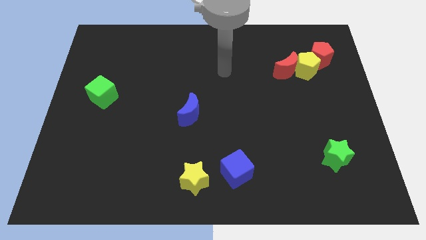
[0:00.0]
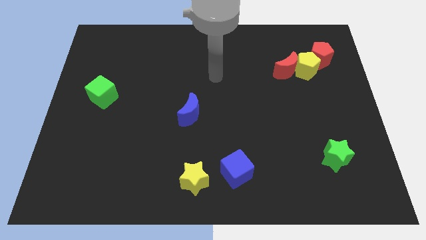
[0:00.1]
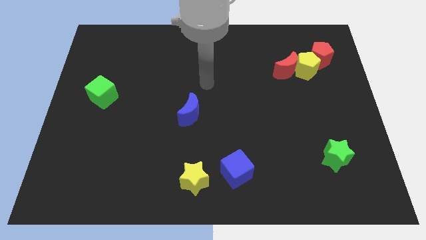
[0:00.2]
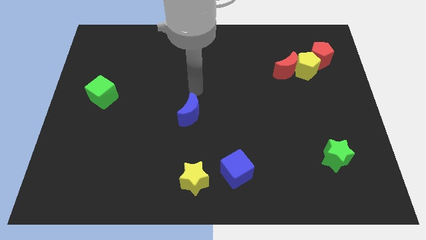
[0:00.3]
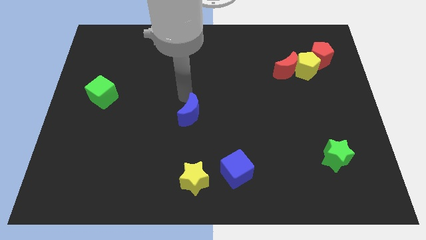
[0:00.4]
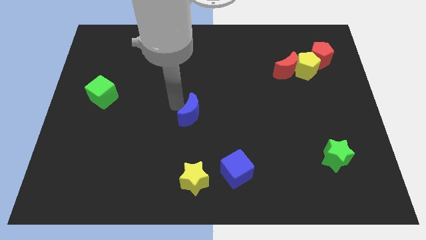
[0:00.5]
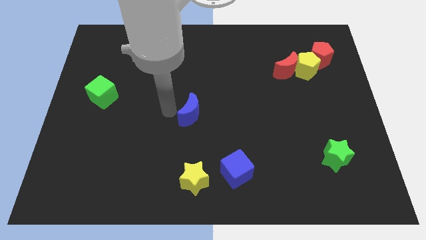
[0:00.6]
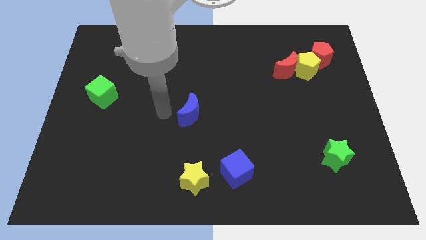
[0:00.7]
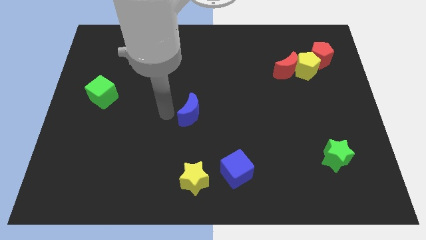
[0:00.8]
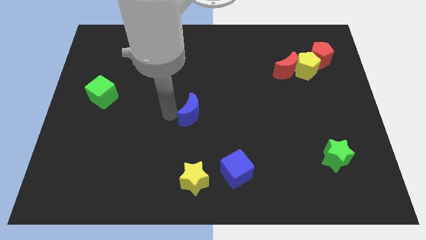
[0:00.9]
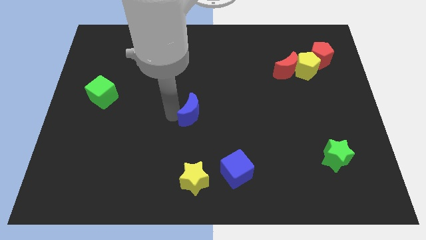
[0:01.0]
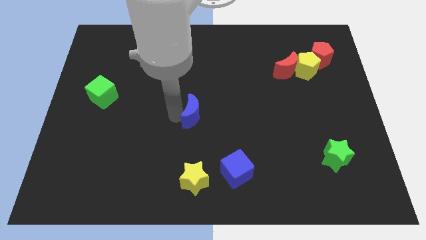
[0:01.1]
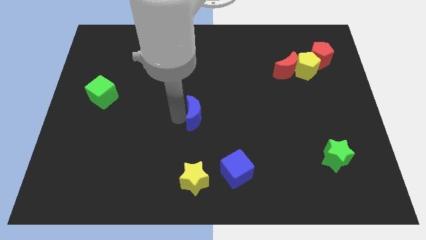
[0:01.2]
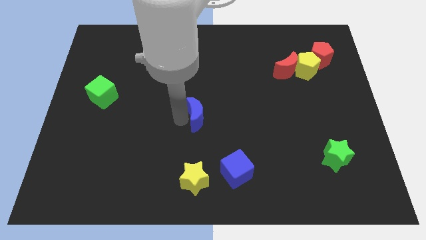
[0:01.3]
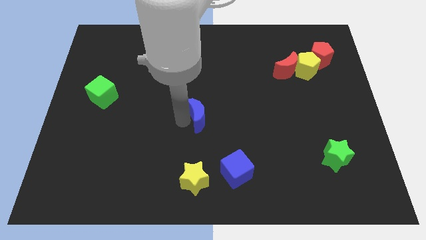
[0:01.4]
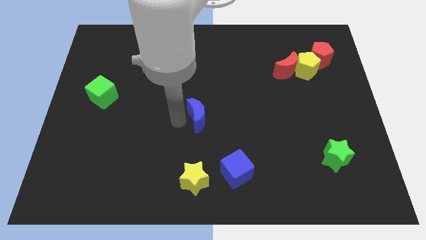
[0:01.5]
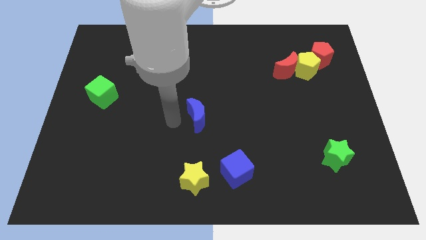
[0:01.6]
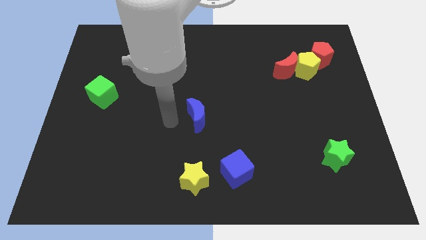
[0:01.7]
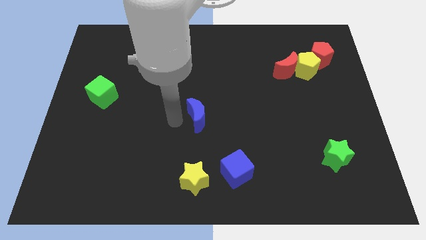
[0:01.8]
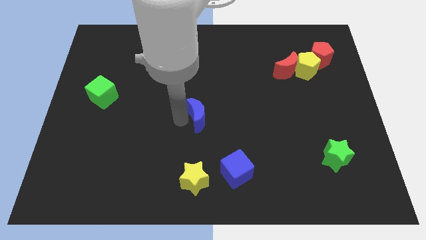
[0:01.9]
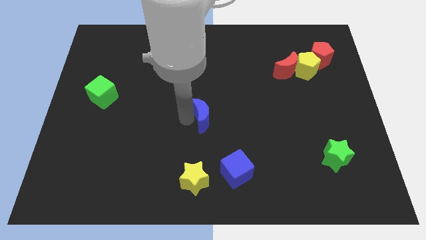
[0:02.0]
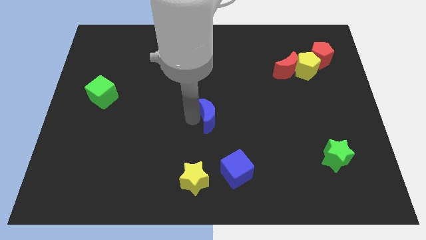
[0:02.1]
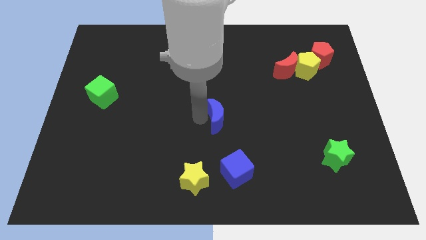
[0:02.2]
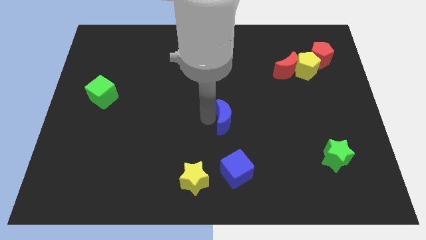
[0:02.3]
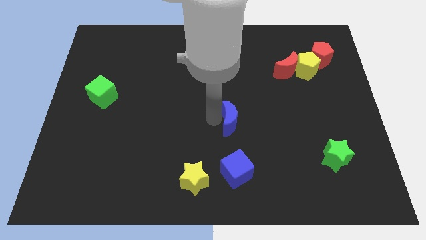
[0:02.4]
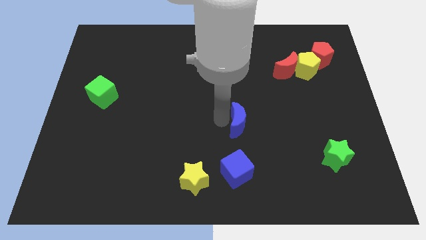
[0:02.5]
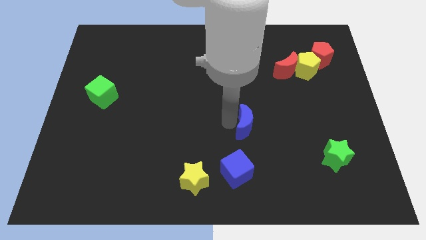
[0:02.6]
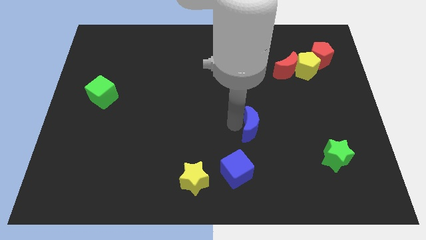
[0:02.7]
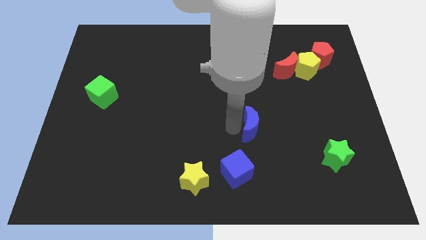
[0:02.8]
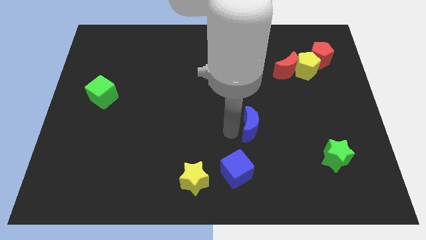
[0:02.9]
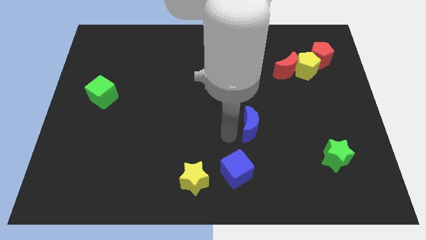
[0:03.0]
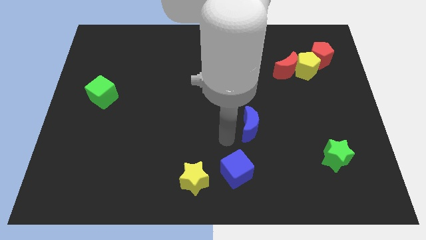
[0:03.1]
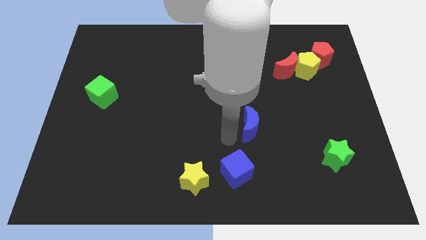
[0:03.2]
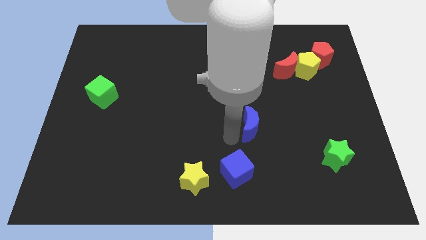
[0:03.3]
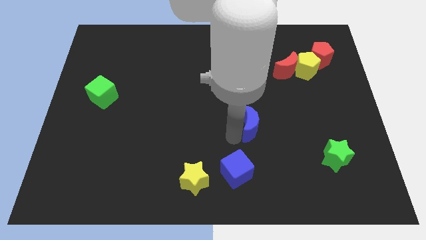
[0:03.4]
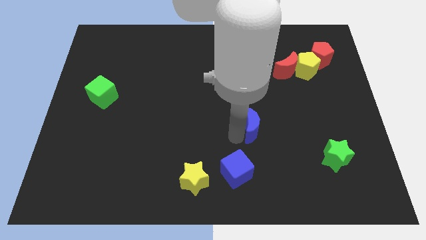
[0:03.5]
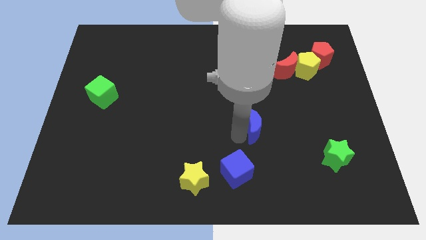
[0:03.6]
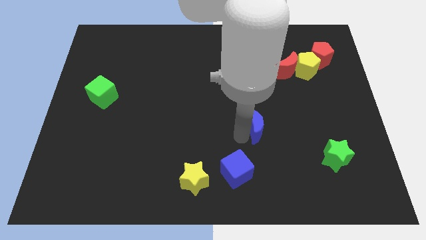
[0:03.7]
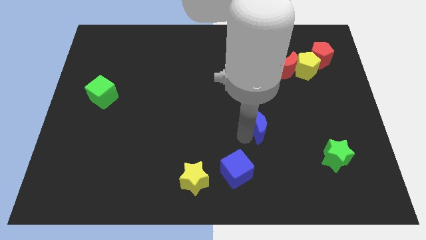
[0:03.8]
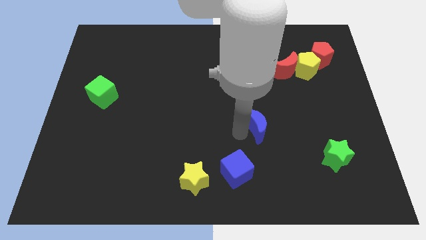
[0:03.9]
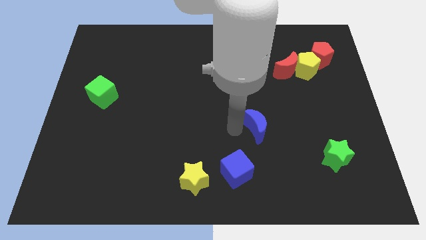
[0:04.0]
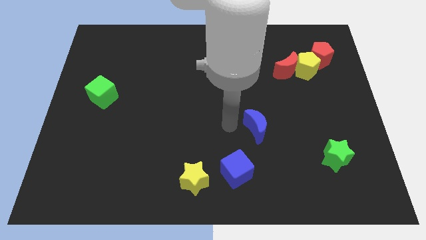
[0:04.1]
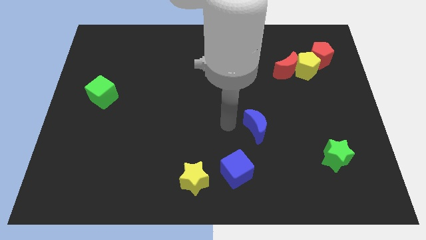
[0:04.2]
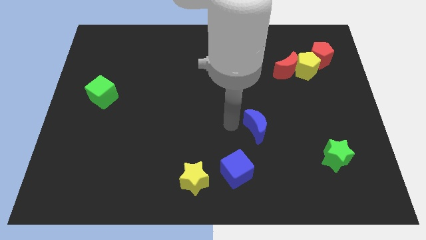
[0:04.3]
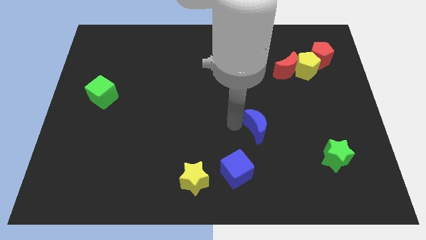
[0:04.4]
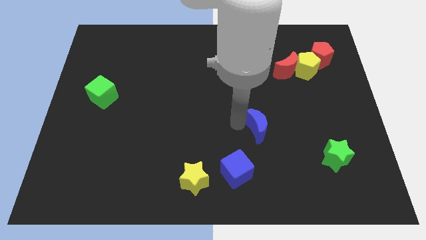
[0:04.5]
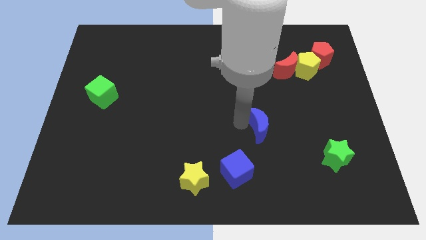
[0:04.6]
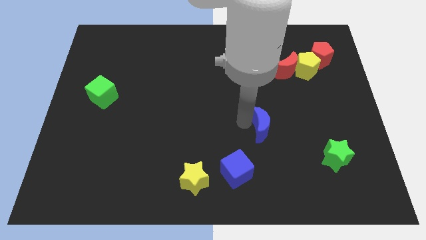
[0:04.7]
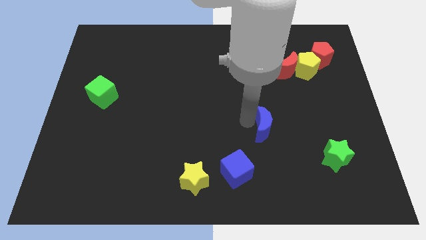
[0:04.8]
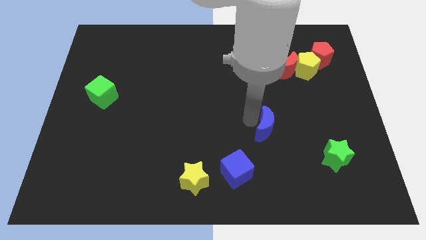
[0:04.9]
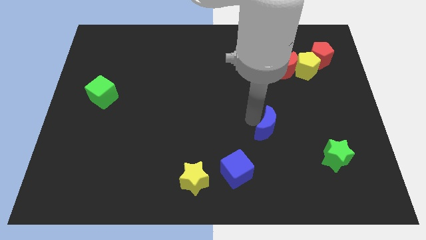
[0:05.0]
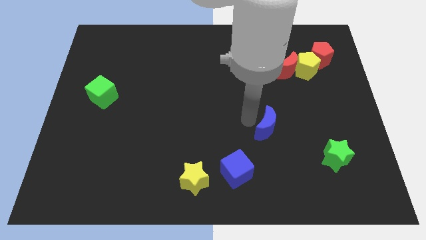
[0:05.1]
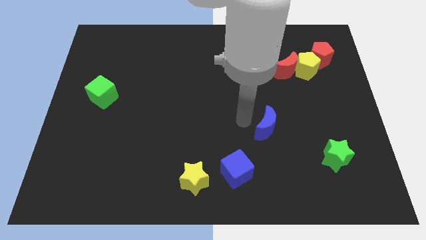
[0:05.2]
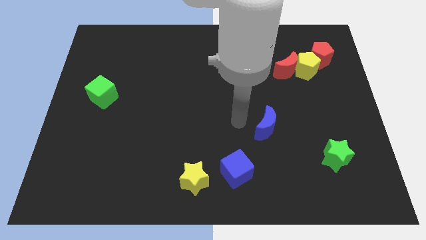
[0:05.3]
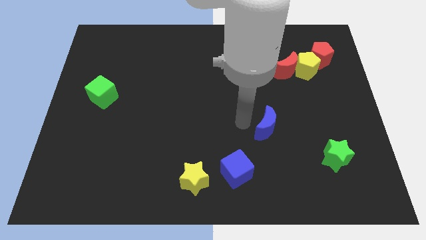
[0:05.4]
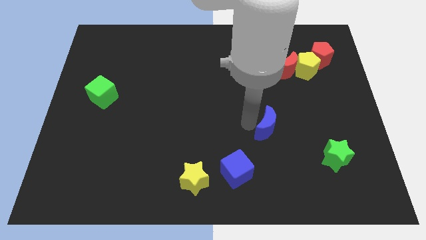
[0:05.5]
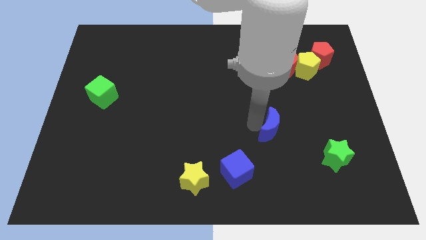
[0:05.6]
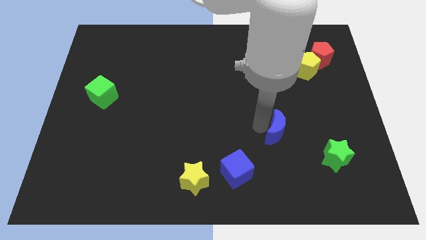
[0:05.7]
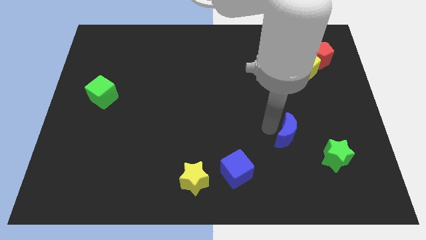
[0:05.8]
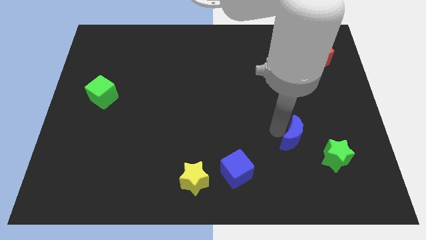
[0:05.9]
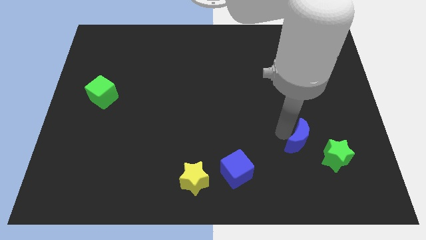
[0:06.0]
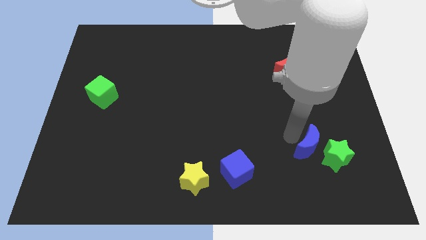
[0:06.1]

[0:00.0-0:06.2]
push the blue moon to the green star
